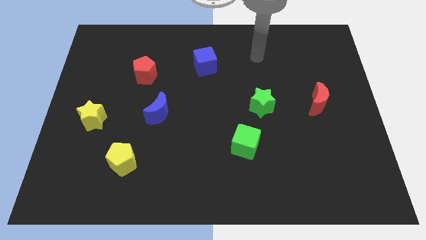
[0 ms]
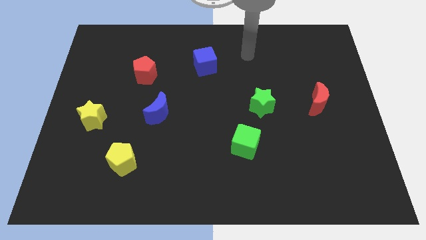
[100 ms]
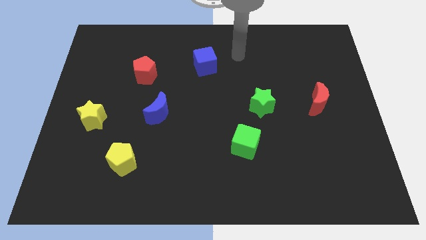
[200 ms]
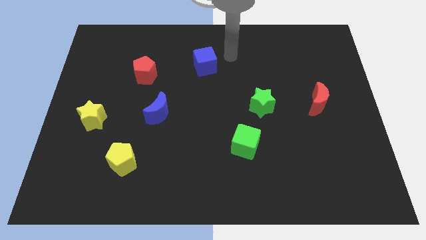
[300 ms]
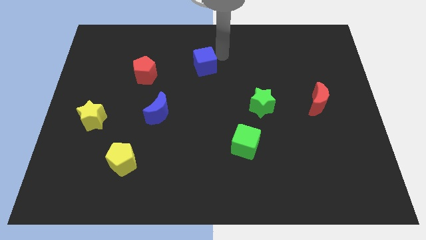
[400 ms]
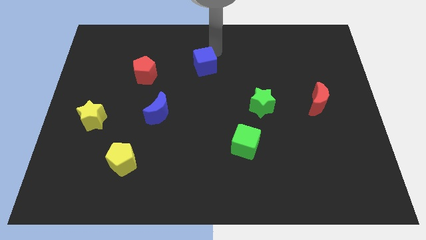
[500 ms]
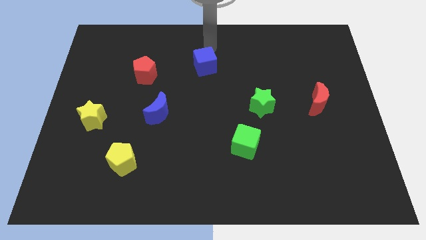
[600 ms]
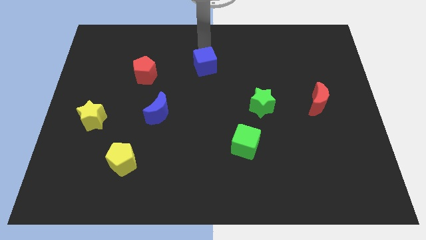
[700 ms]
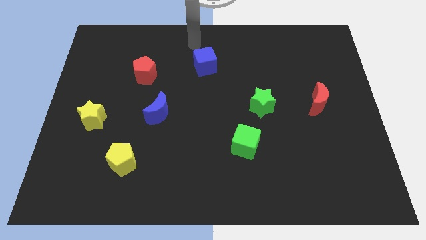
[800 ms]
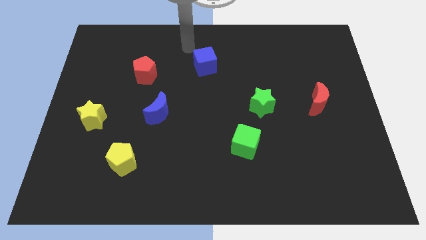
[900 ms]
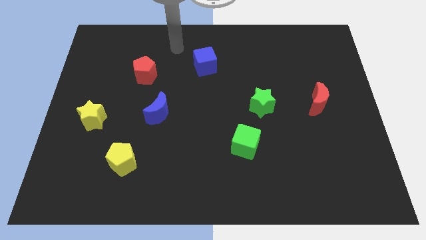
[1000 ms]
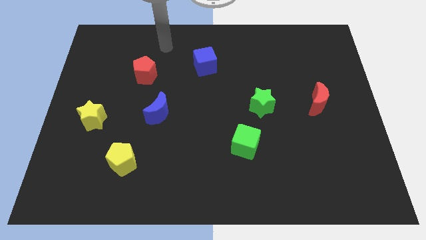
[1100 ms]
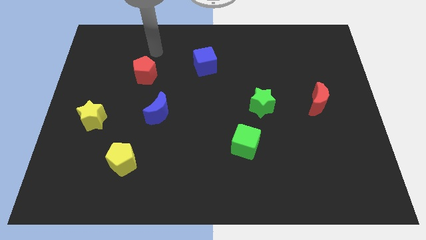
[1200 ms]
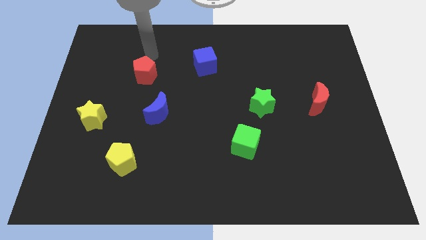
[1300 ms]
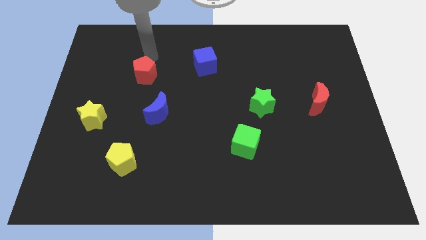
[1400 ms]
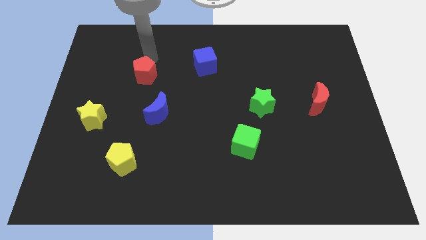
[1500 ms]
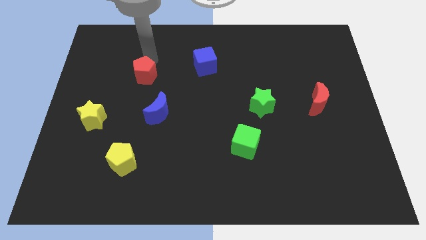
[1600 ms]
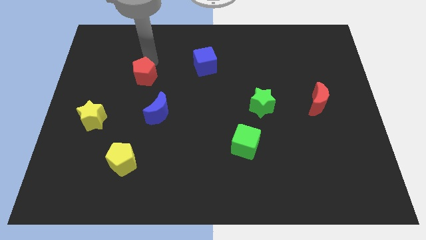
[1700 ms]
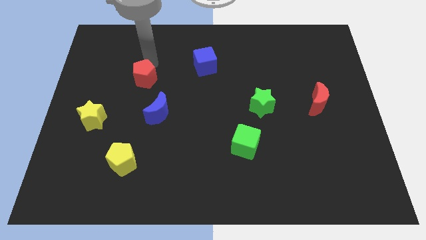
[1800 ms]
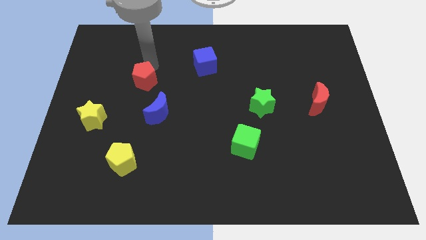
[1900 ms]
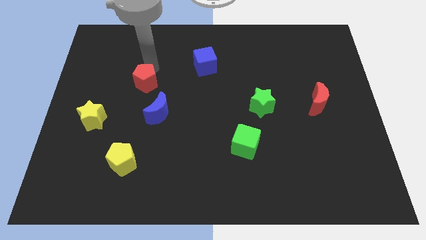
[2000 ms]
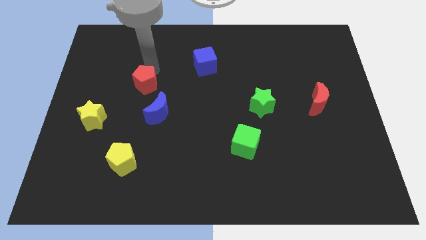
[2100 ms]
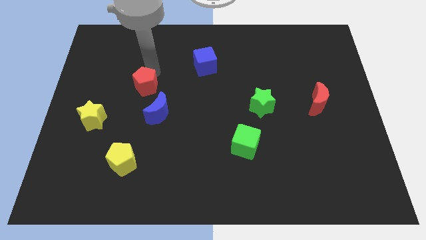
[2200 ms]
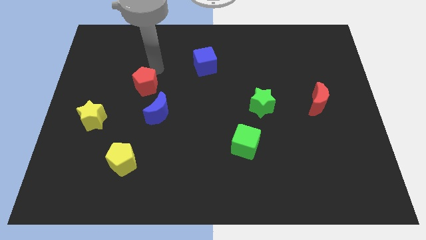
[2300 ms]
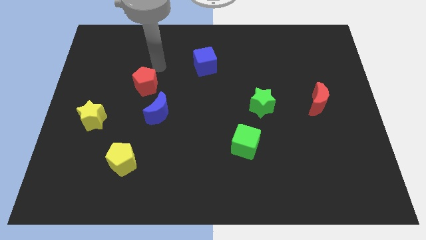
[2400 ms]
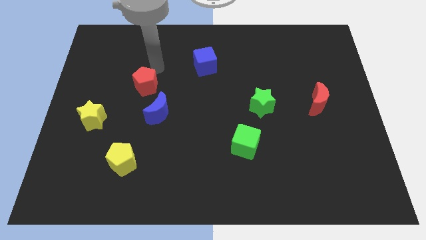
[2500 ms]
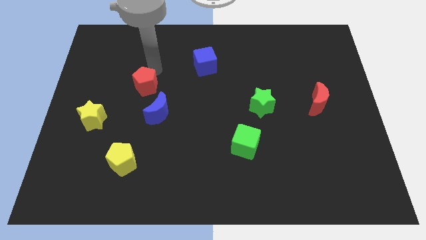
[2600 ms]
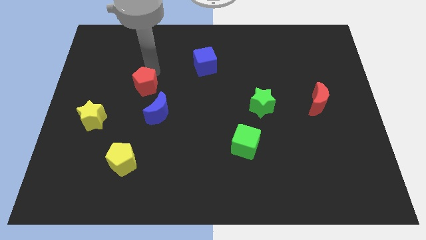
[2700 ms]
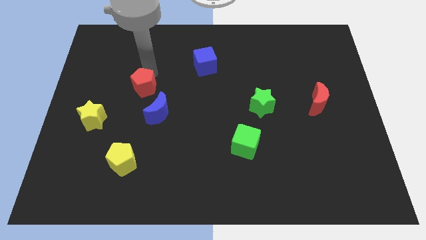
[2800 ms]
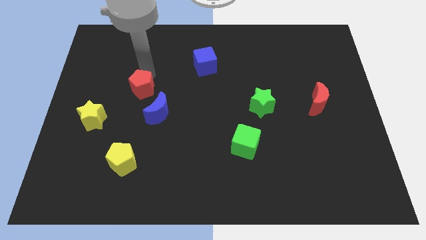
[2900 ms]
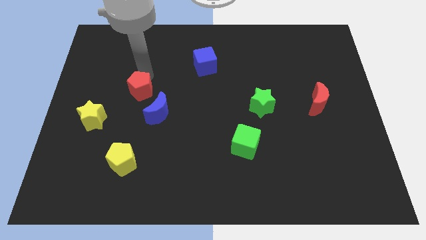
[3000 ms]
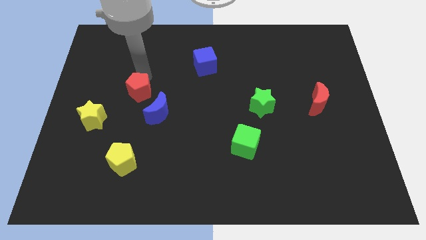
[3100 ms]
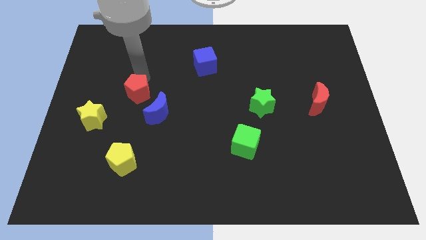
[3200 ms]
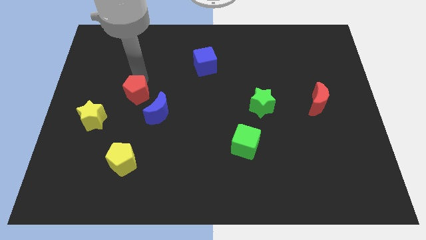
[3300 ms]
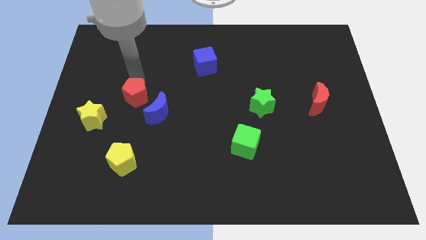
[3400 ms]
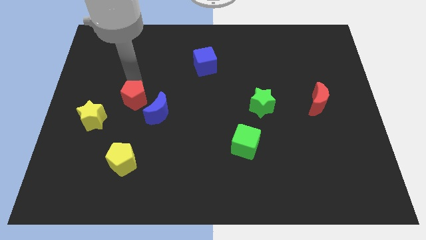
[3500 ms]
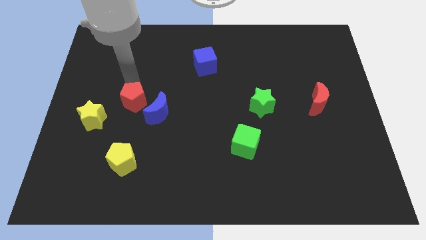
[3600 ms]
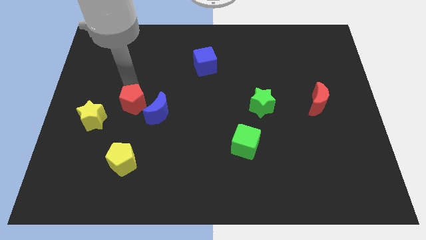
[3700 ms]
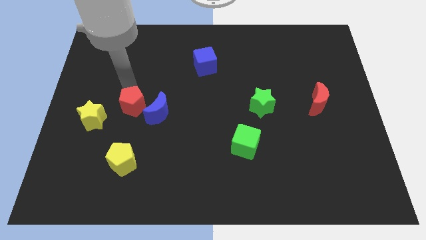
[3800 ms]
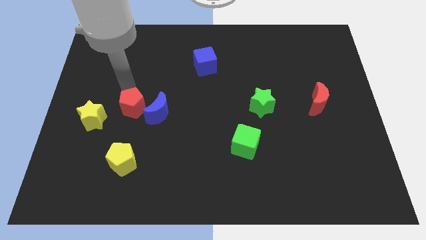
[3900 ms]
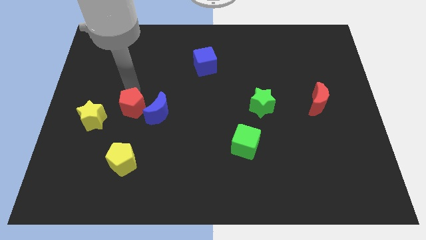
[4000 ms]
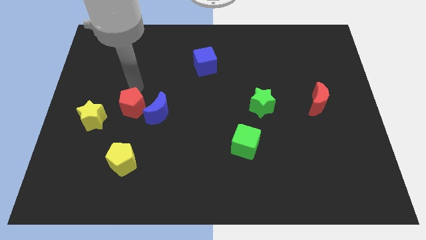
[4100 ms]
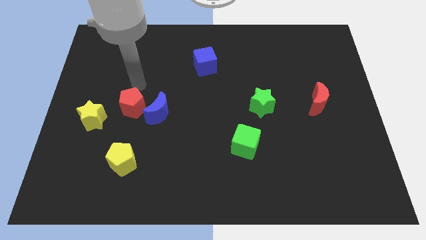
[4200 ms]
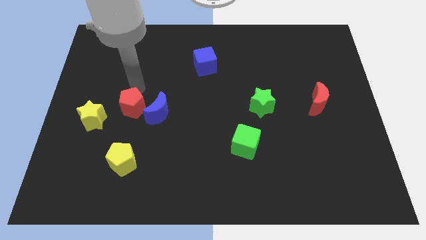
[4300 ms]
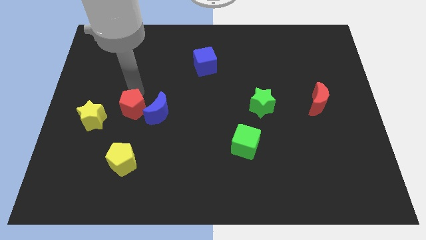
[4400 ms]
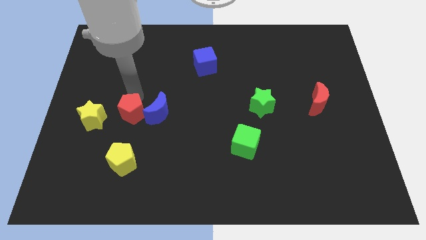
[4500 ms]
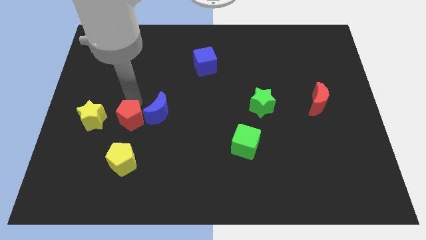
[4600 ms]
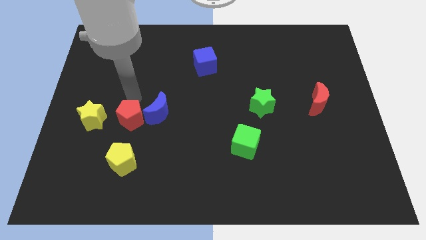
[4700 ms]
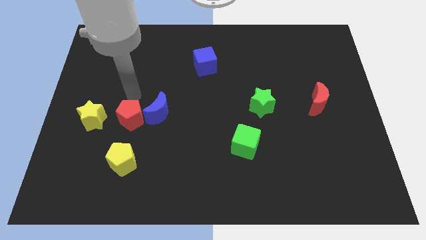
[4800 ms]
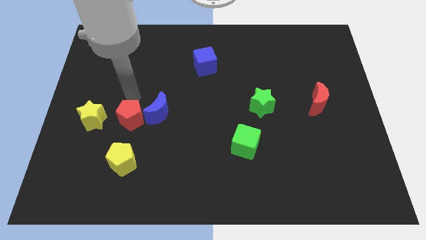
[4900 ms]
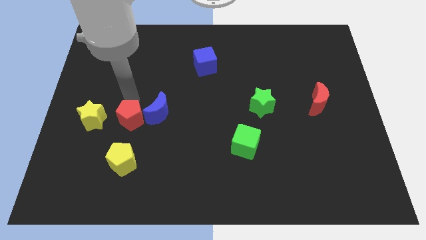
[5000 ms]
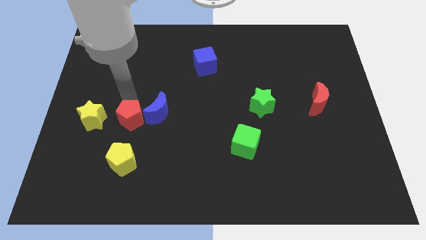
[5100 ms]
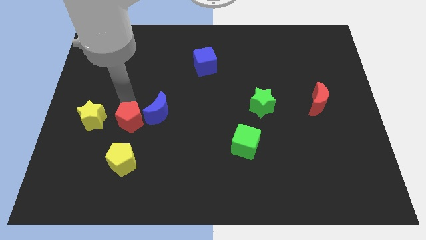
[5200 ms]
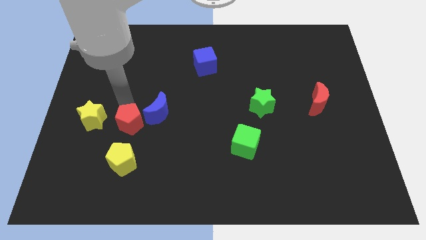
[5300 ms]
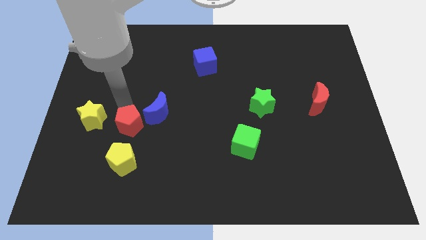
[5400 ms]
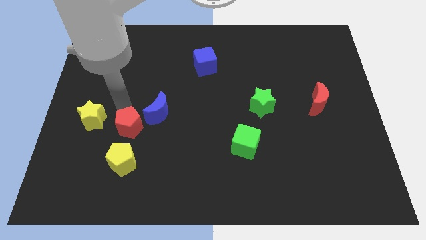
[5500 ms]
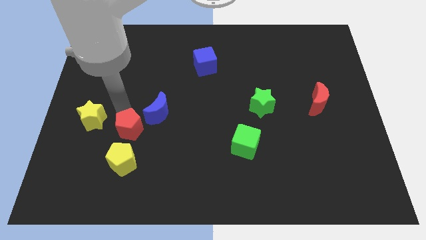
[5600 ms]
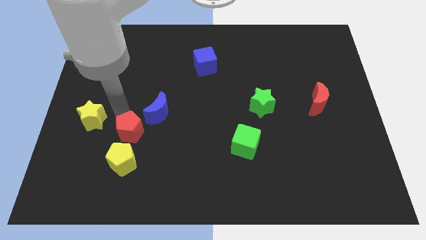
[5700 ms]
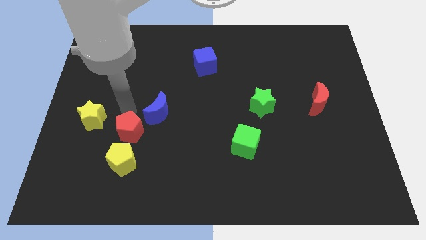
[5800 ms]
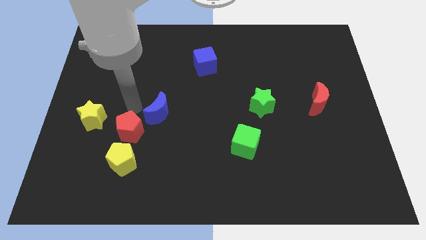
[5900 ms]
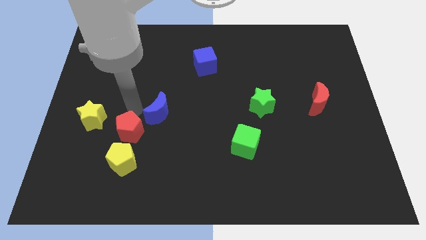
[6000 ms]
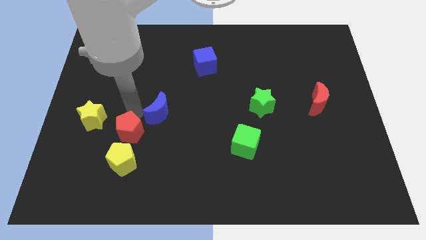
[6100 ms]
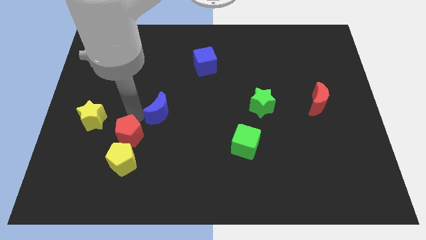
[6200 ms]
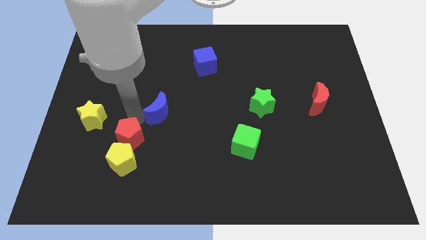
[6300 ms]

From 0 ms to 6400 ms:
put the red pentagon towards the yellow pentagon

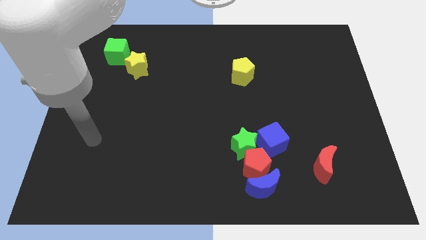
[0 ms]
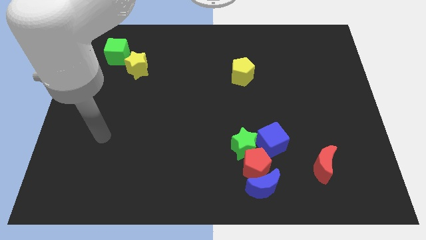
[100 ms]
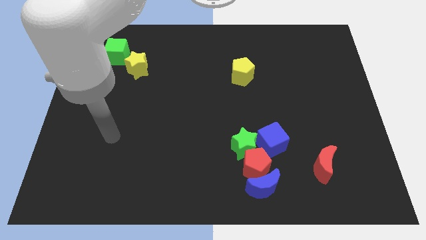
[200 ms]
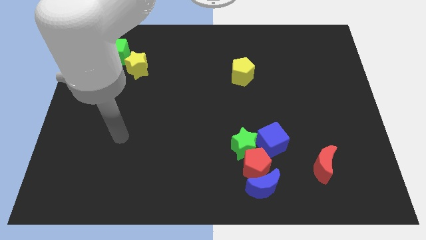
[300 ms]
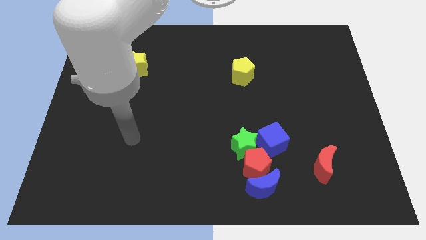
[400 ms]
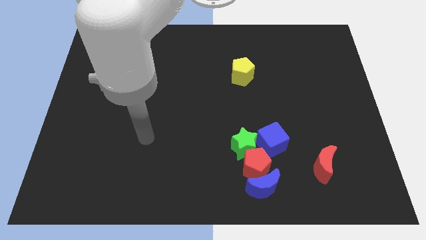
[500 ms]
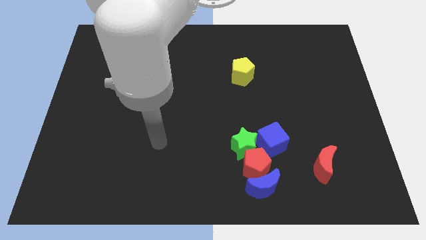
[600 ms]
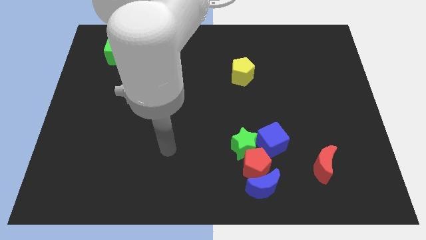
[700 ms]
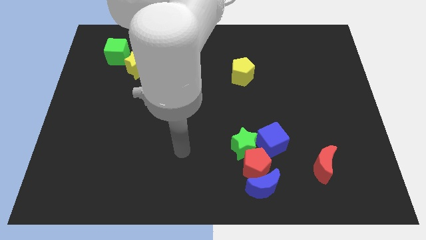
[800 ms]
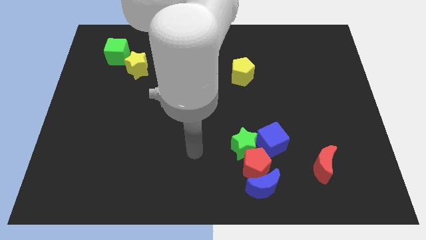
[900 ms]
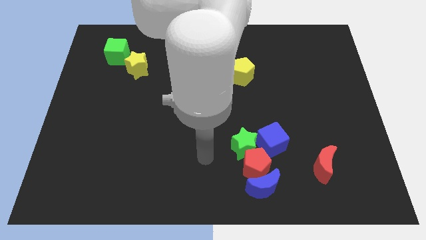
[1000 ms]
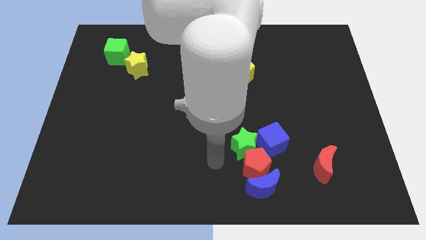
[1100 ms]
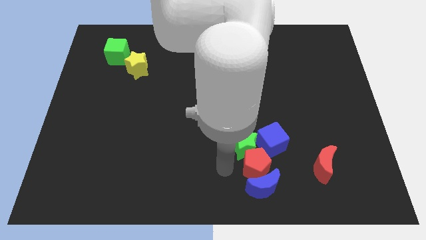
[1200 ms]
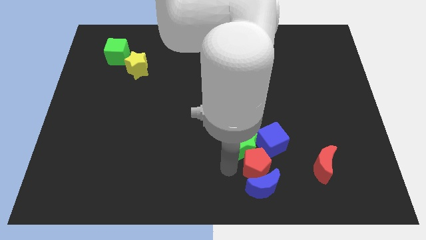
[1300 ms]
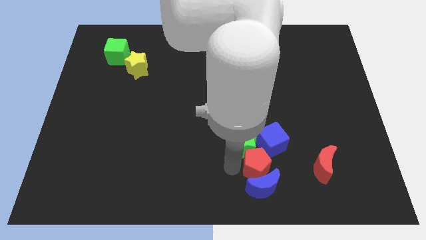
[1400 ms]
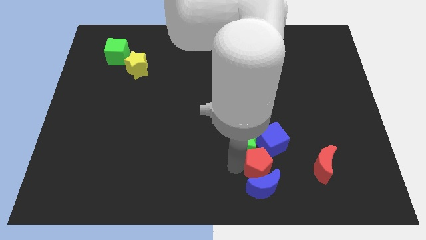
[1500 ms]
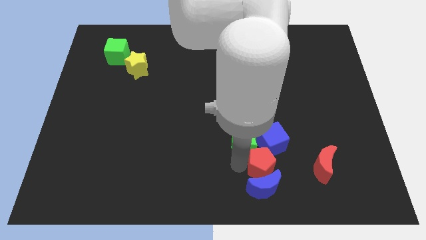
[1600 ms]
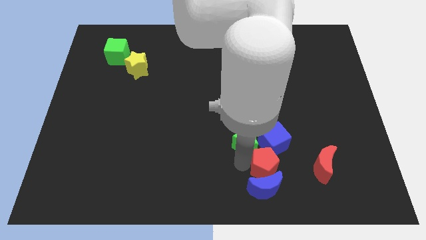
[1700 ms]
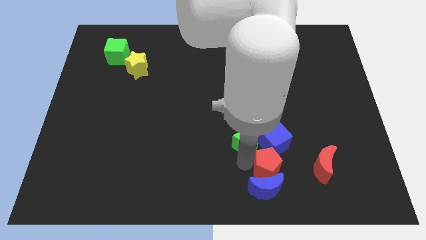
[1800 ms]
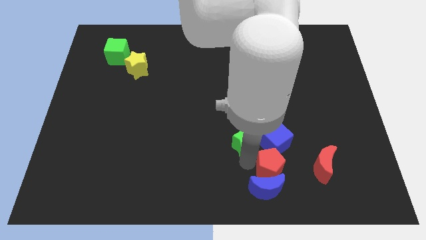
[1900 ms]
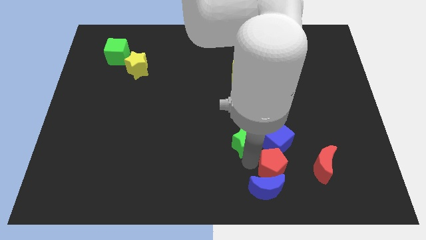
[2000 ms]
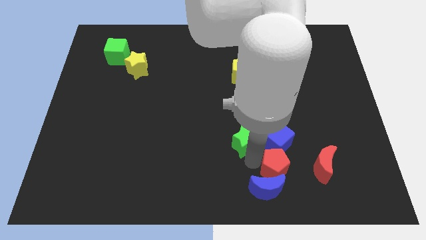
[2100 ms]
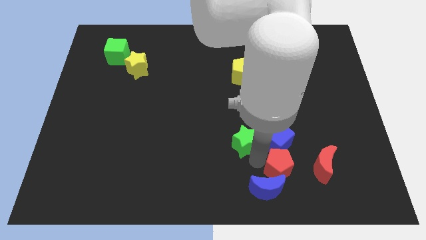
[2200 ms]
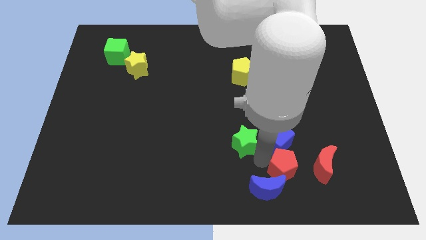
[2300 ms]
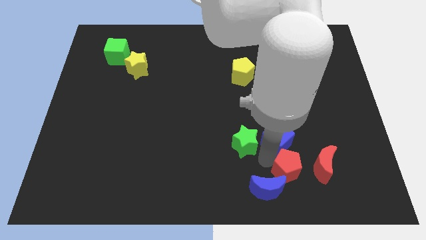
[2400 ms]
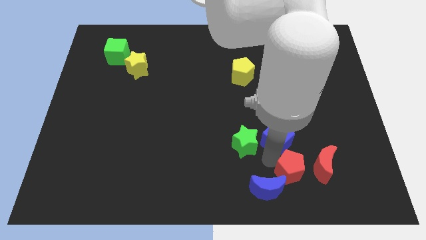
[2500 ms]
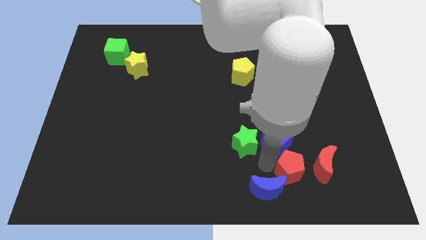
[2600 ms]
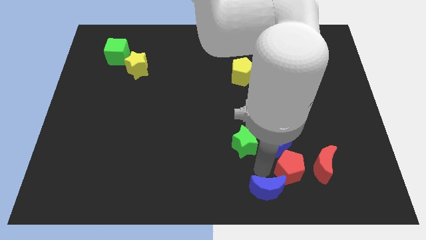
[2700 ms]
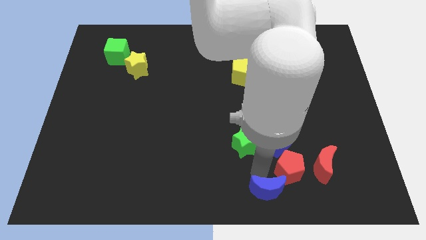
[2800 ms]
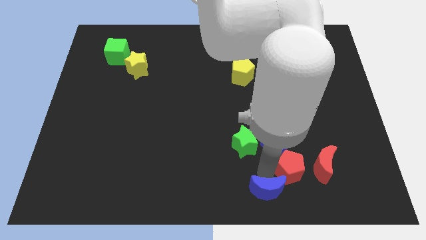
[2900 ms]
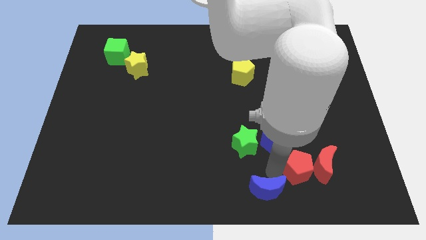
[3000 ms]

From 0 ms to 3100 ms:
push the red pentagon to the red moon
